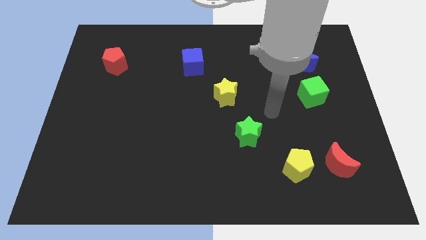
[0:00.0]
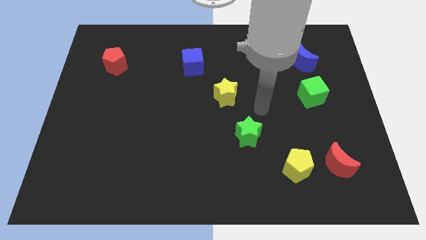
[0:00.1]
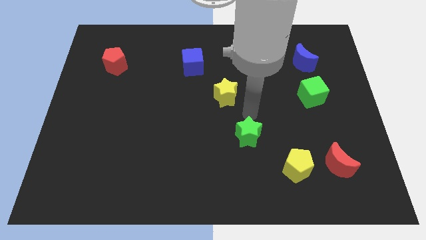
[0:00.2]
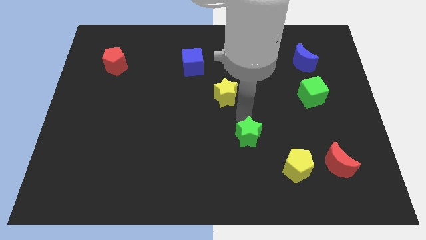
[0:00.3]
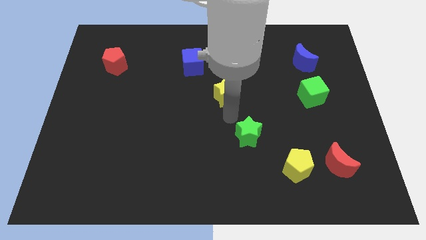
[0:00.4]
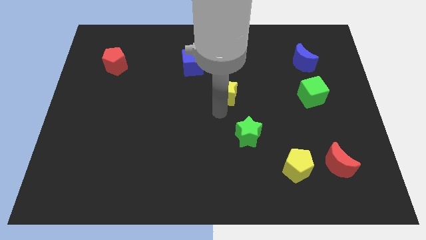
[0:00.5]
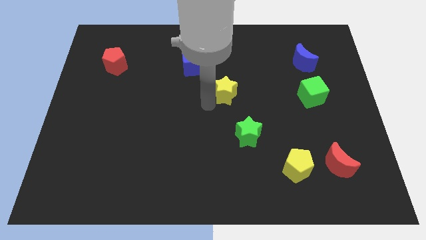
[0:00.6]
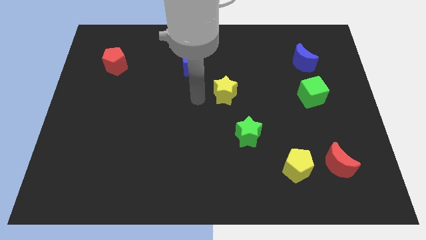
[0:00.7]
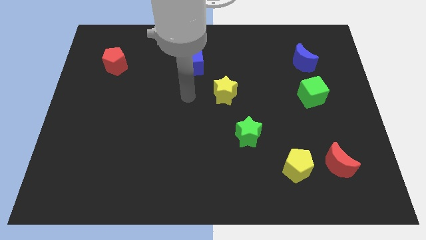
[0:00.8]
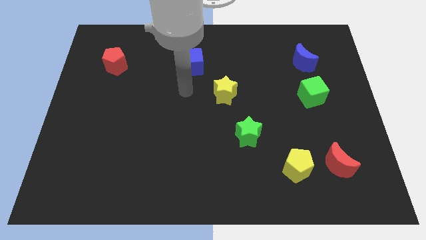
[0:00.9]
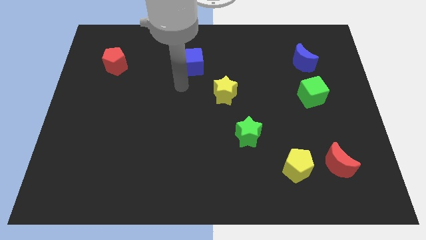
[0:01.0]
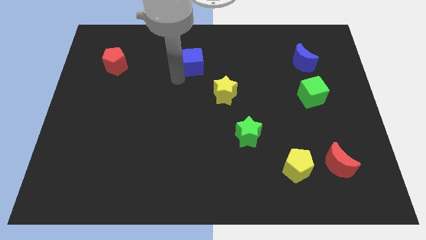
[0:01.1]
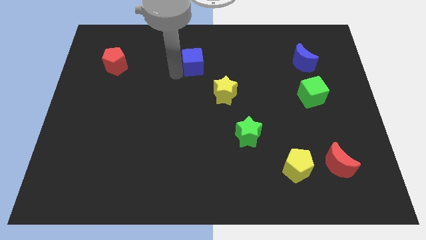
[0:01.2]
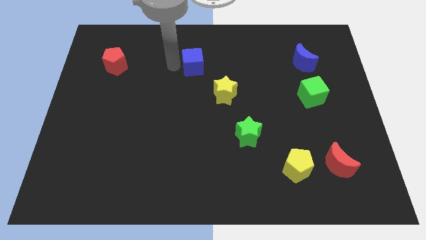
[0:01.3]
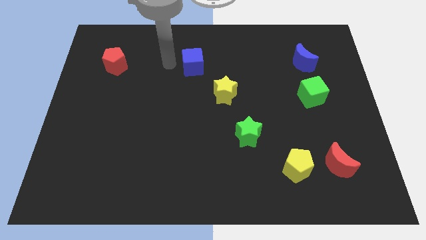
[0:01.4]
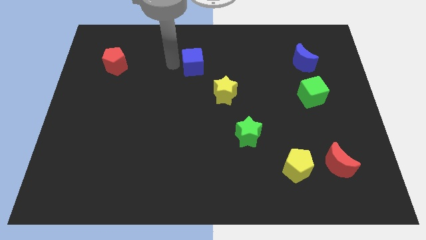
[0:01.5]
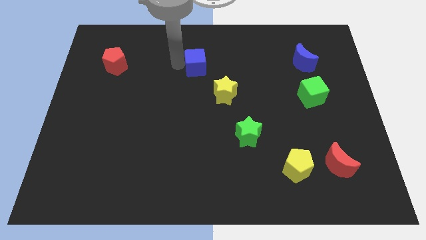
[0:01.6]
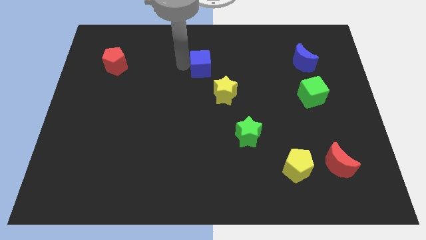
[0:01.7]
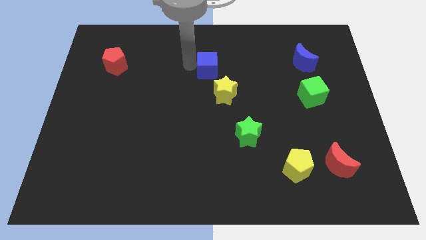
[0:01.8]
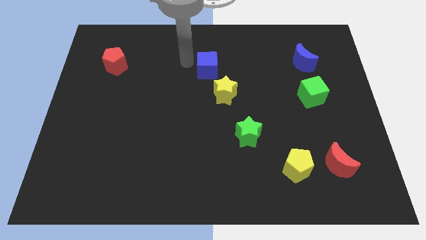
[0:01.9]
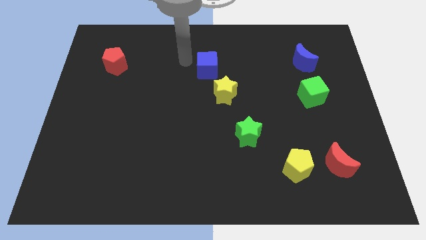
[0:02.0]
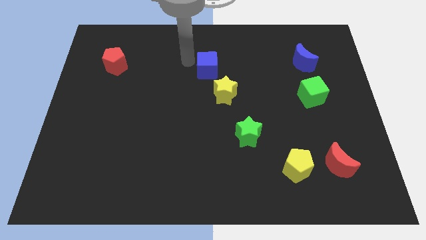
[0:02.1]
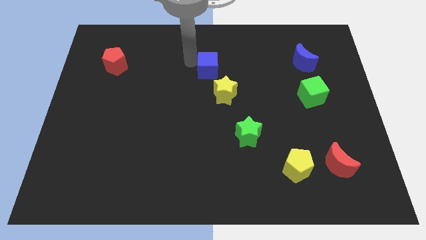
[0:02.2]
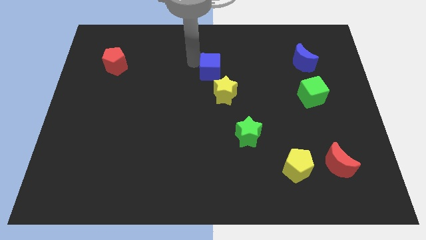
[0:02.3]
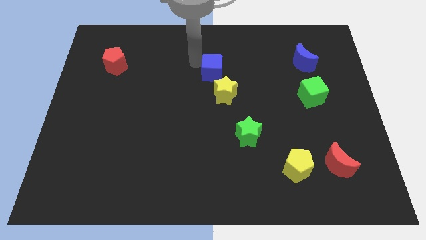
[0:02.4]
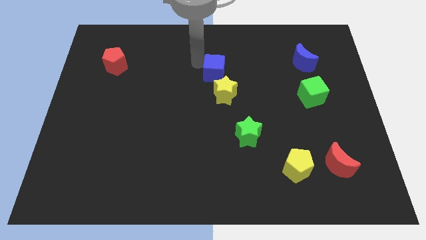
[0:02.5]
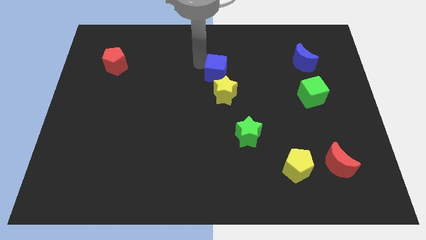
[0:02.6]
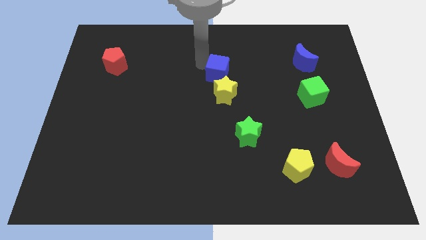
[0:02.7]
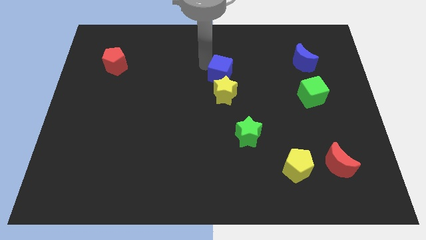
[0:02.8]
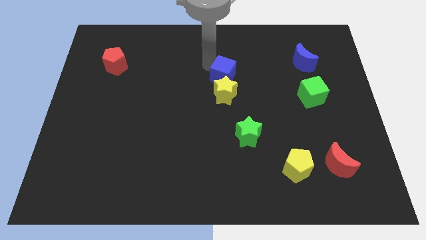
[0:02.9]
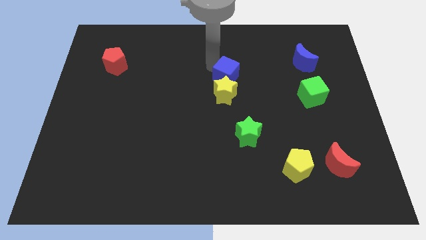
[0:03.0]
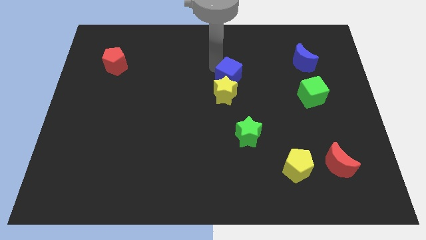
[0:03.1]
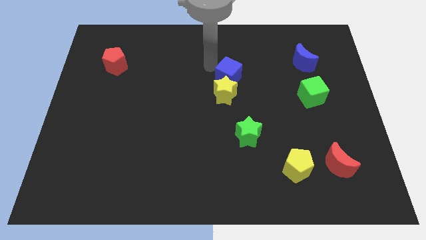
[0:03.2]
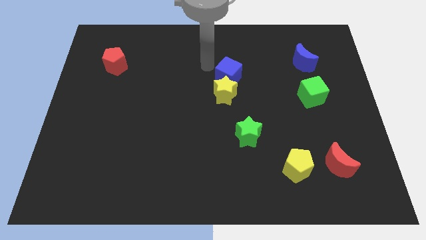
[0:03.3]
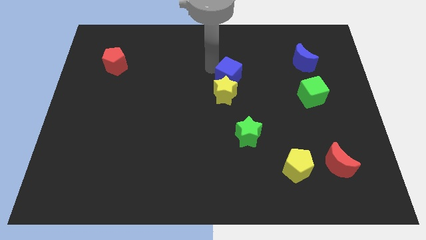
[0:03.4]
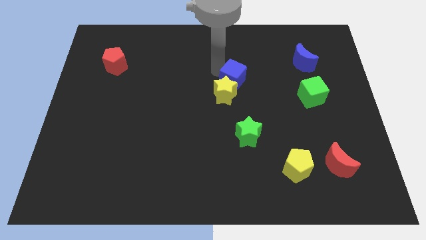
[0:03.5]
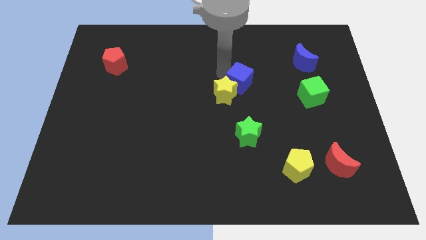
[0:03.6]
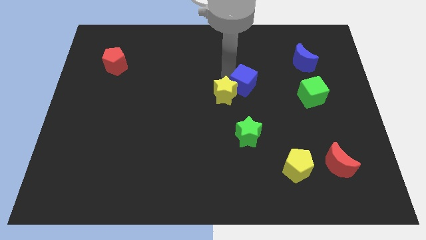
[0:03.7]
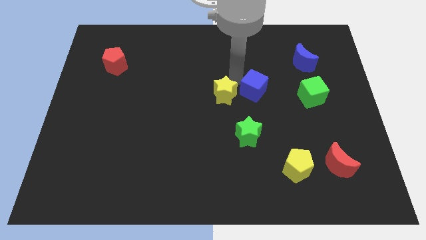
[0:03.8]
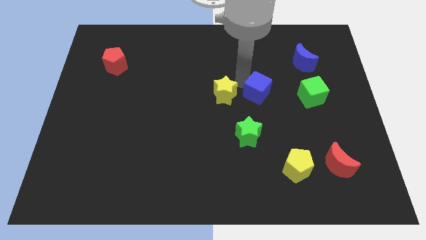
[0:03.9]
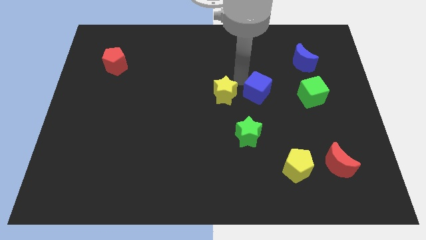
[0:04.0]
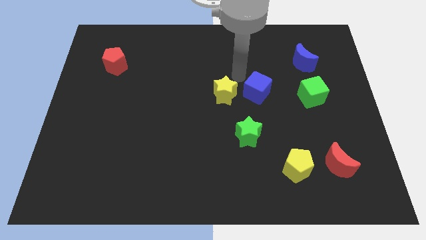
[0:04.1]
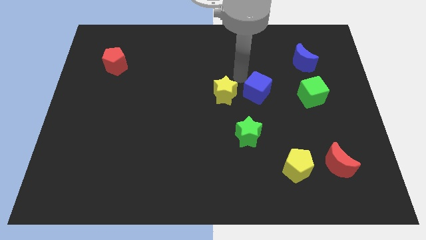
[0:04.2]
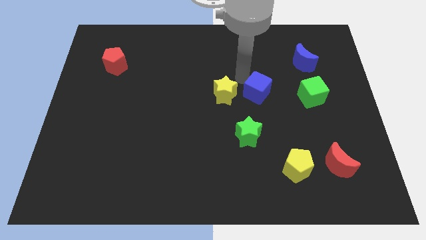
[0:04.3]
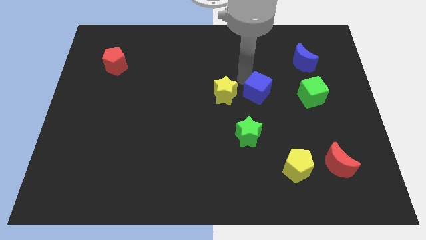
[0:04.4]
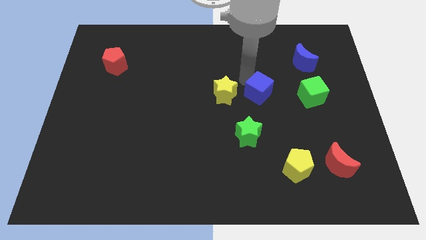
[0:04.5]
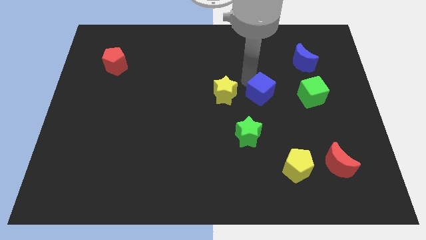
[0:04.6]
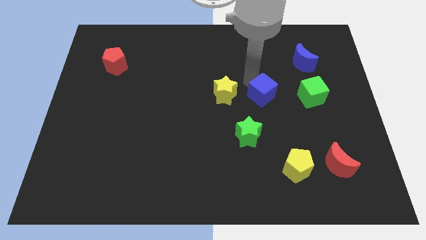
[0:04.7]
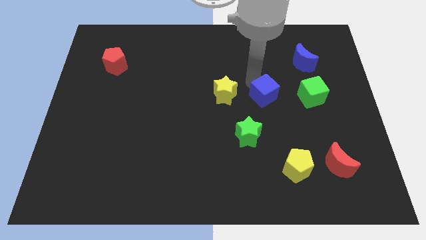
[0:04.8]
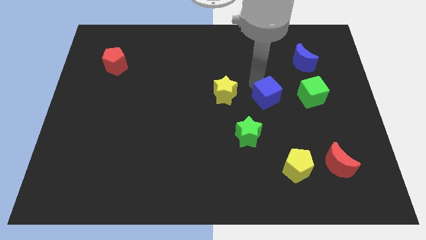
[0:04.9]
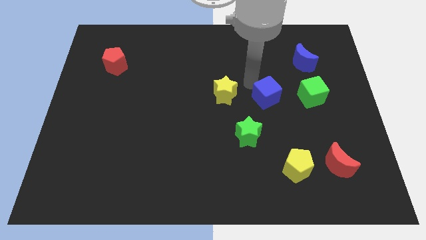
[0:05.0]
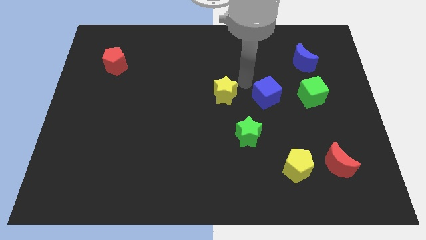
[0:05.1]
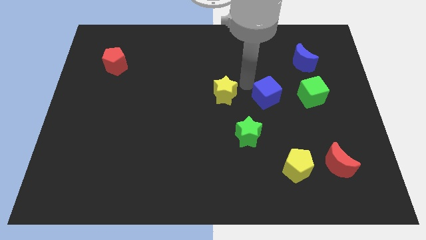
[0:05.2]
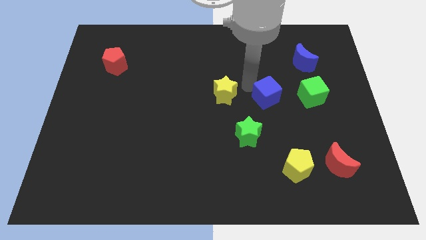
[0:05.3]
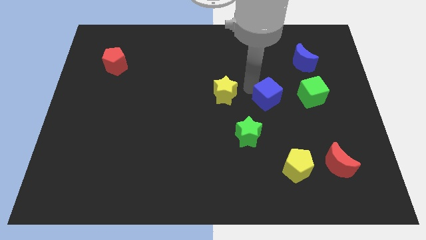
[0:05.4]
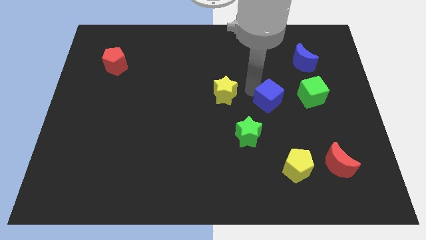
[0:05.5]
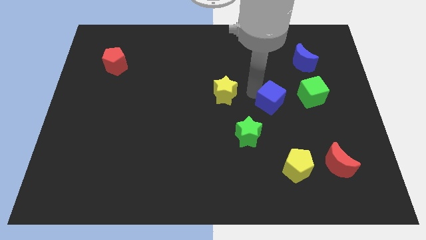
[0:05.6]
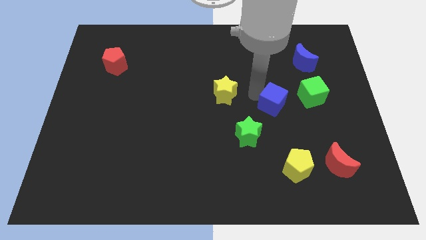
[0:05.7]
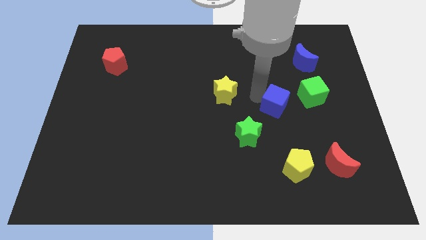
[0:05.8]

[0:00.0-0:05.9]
push the blue cube to the bottom left of the green cube

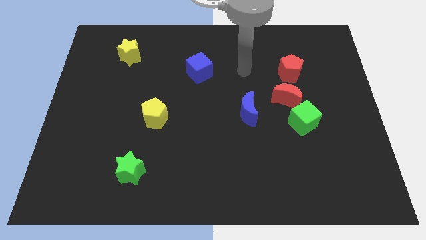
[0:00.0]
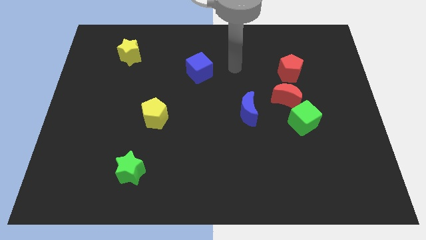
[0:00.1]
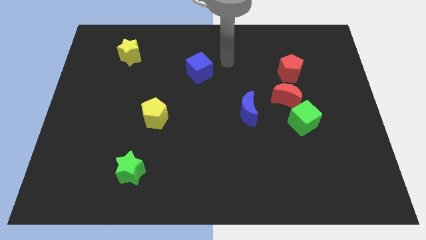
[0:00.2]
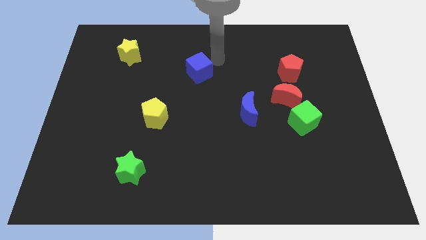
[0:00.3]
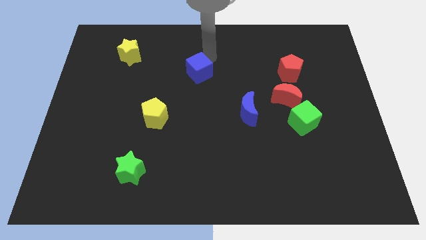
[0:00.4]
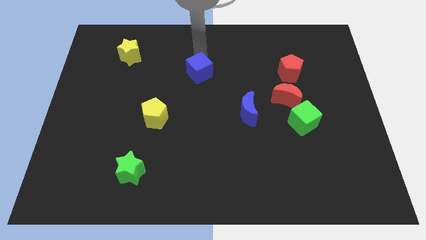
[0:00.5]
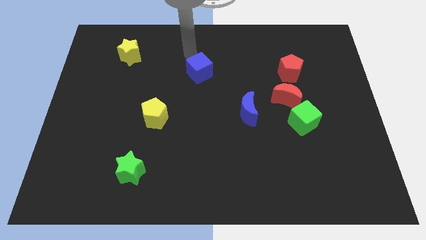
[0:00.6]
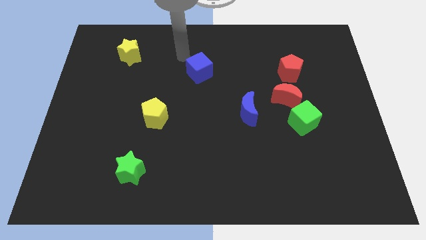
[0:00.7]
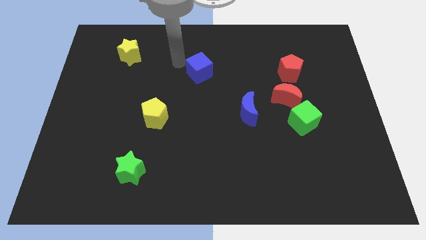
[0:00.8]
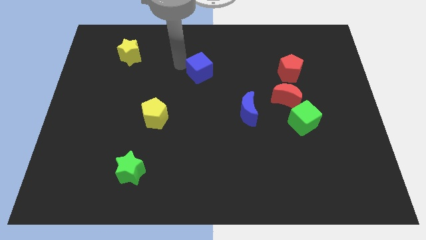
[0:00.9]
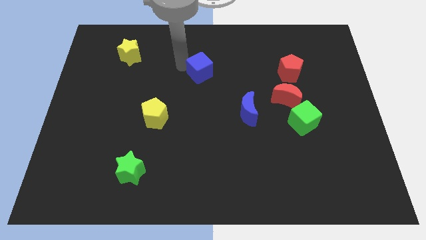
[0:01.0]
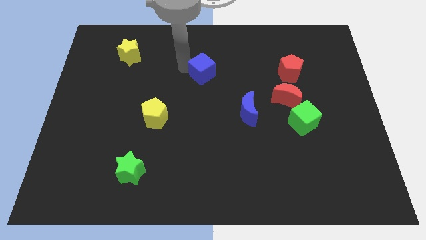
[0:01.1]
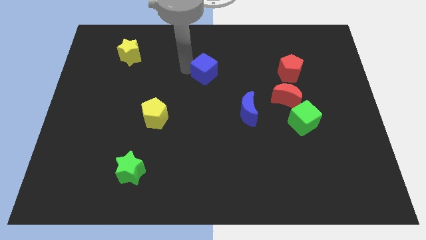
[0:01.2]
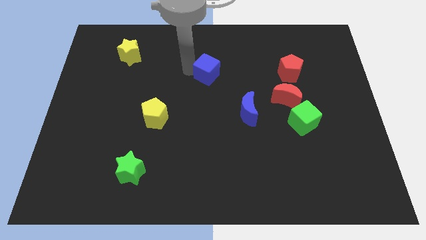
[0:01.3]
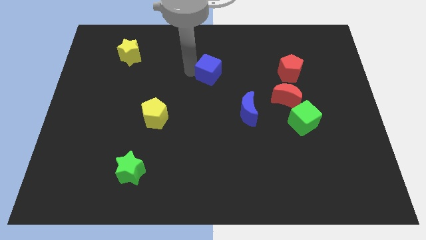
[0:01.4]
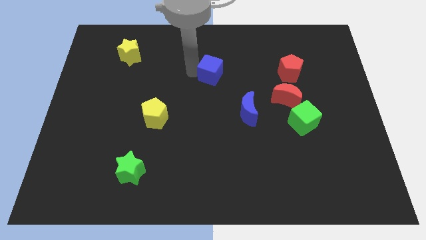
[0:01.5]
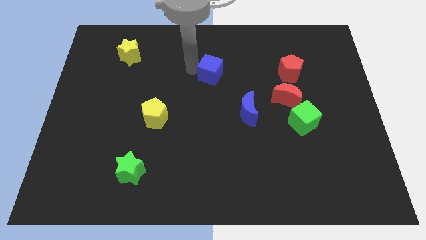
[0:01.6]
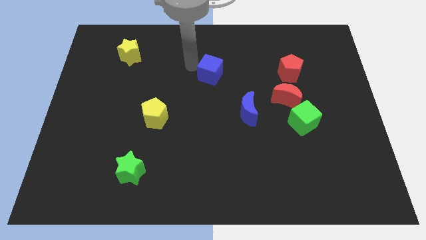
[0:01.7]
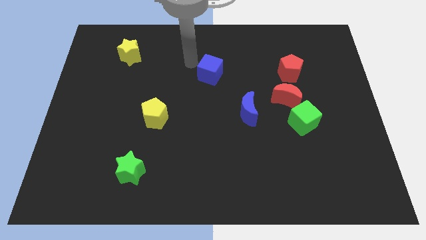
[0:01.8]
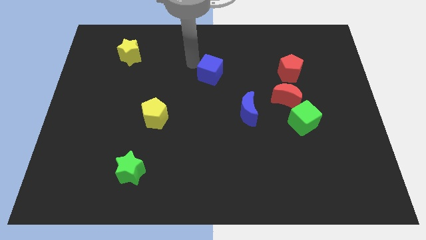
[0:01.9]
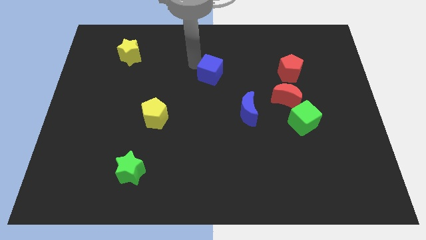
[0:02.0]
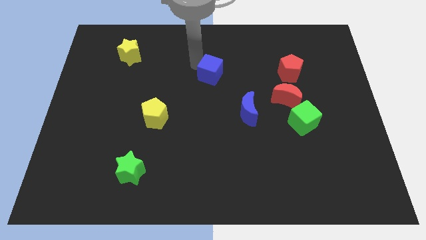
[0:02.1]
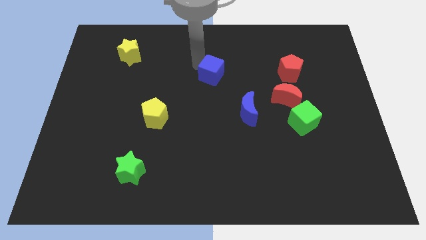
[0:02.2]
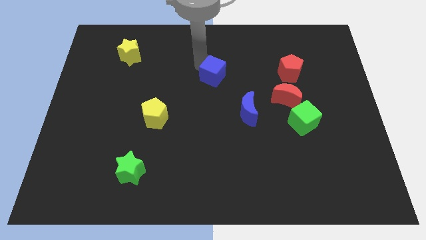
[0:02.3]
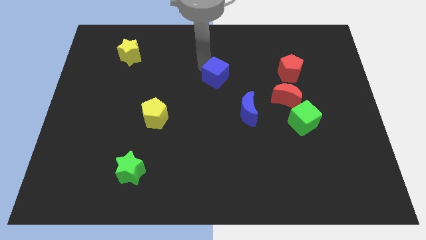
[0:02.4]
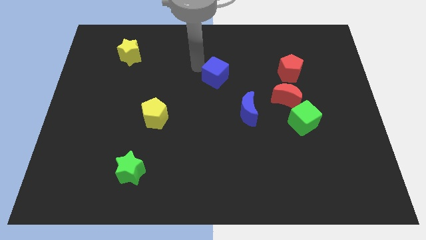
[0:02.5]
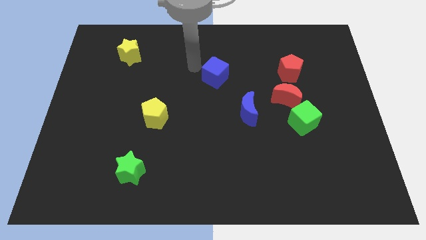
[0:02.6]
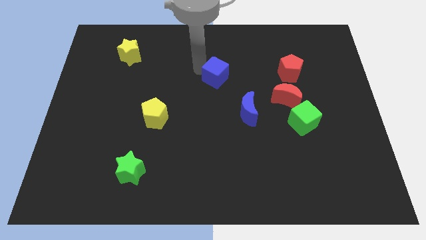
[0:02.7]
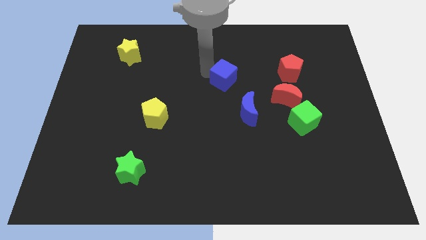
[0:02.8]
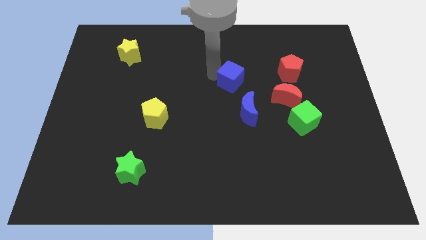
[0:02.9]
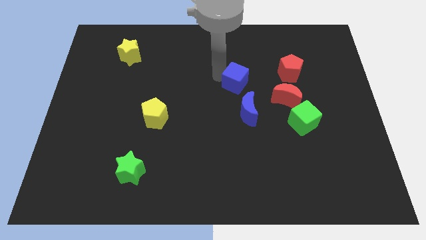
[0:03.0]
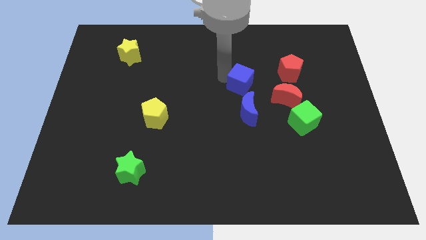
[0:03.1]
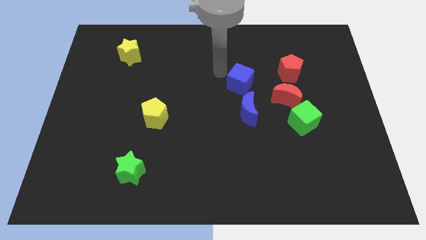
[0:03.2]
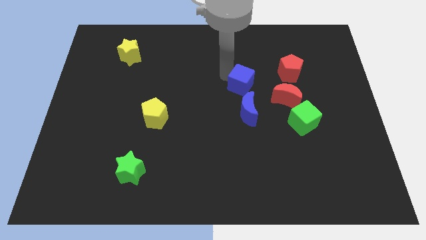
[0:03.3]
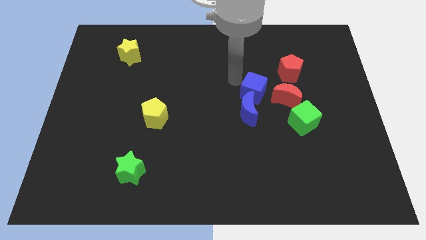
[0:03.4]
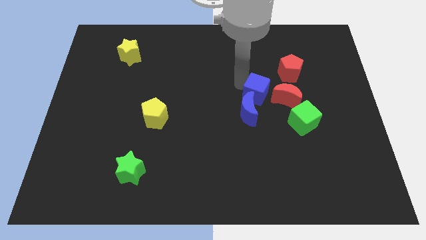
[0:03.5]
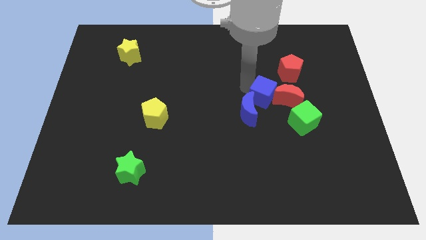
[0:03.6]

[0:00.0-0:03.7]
slide the blue cube to the top left side of the green cube
